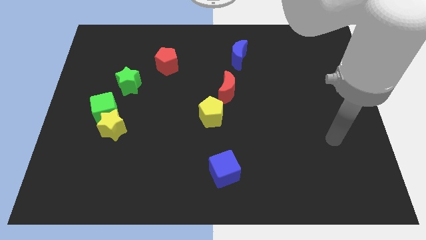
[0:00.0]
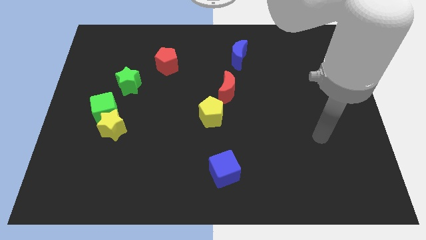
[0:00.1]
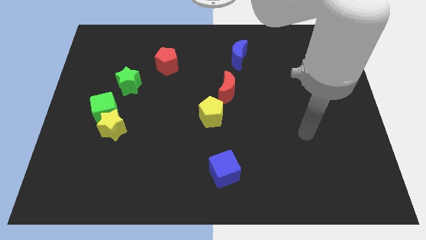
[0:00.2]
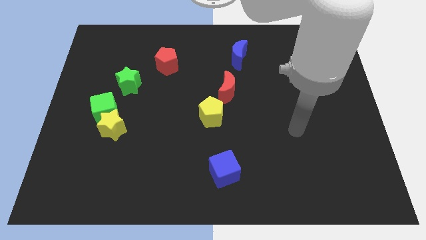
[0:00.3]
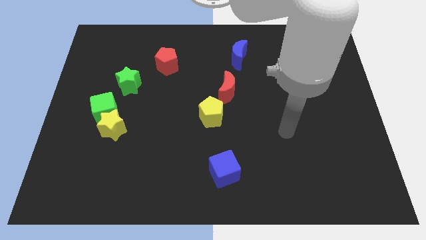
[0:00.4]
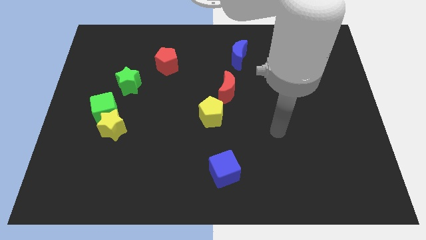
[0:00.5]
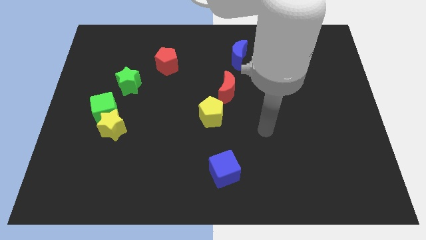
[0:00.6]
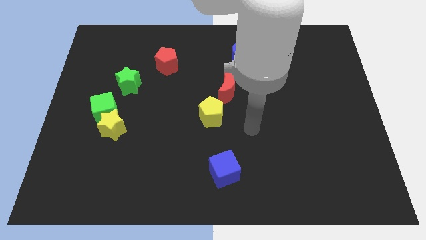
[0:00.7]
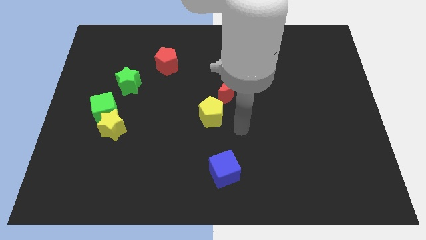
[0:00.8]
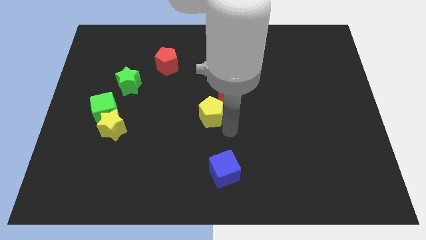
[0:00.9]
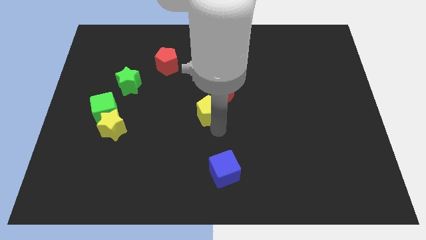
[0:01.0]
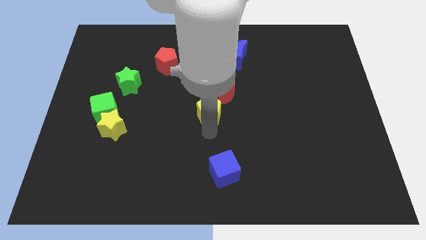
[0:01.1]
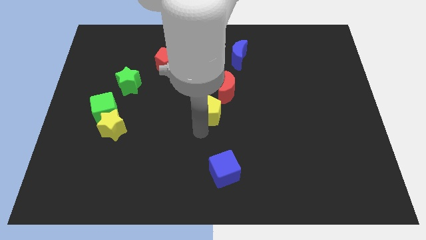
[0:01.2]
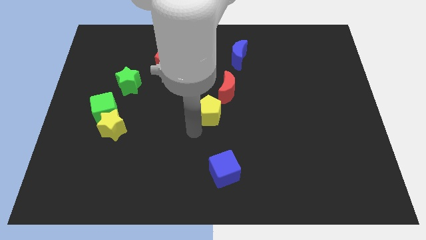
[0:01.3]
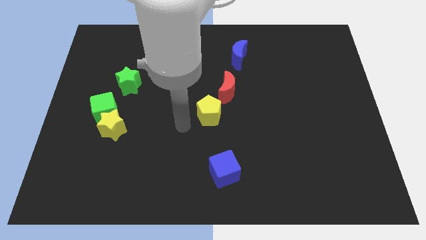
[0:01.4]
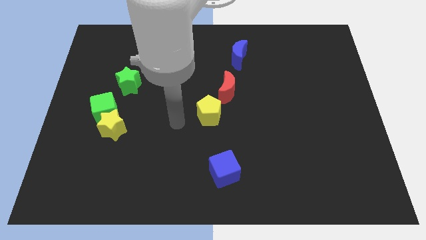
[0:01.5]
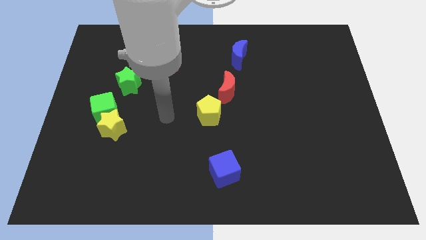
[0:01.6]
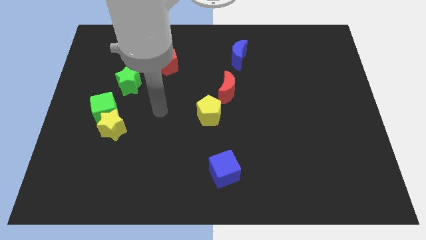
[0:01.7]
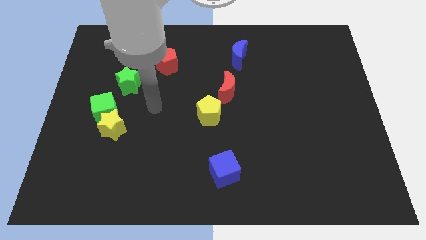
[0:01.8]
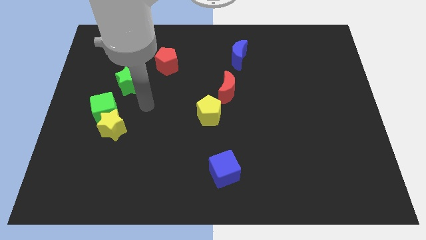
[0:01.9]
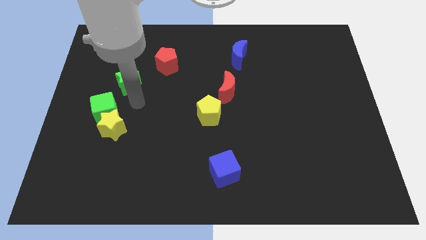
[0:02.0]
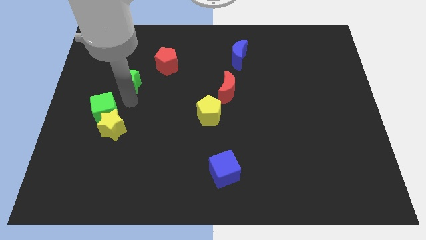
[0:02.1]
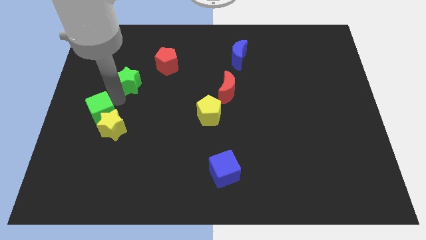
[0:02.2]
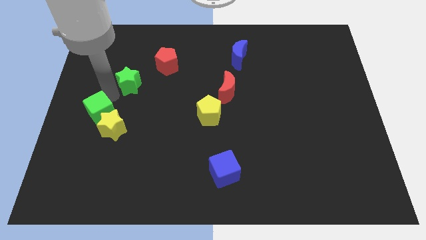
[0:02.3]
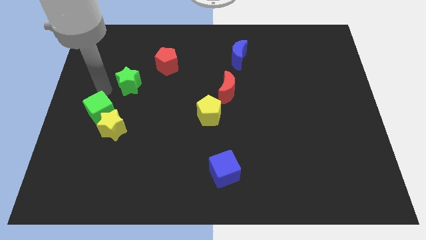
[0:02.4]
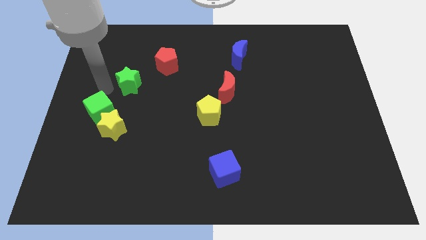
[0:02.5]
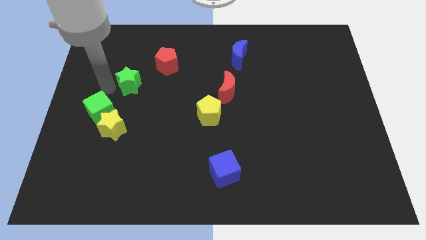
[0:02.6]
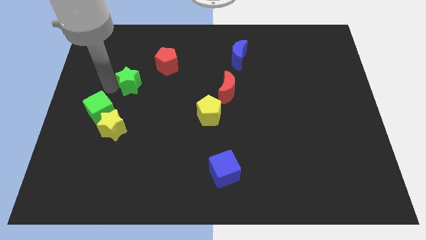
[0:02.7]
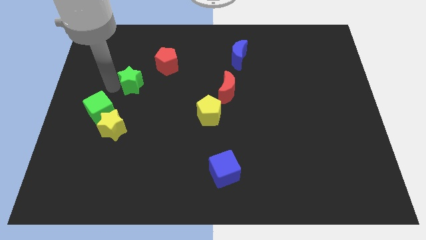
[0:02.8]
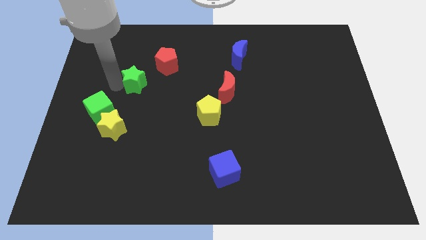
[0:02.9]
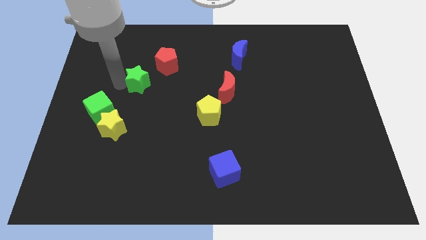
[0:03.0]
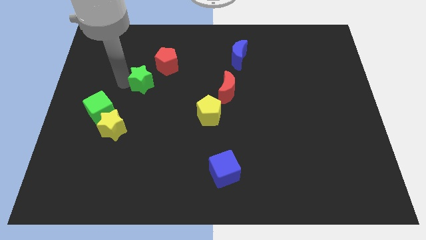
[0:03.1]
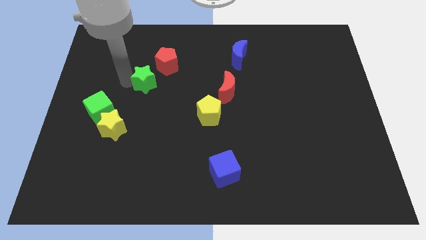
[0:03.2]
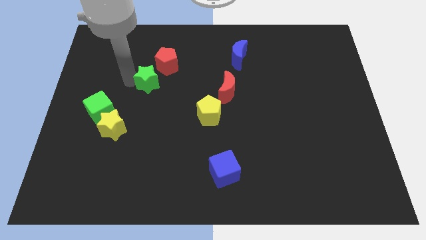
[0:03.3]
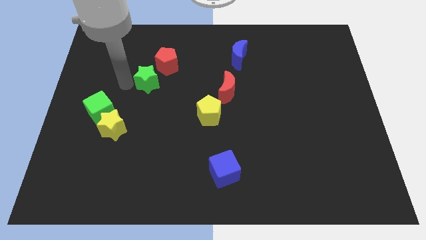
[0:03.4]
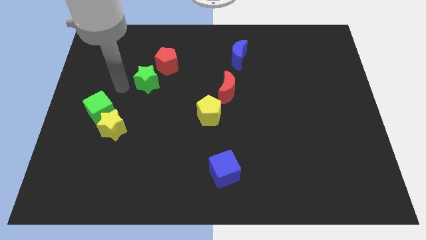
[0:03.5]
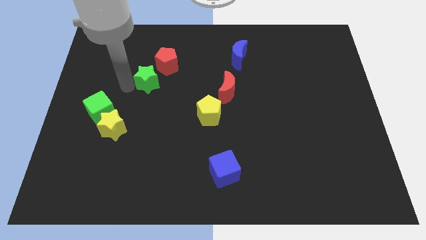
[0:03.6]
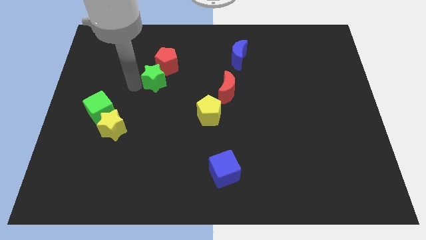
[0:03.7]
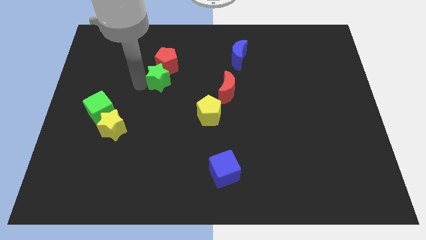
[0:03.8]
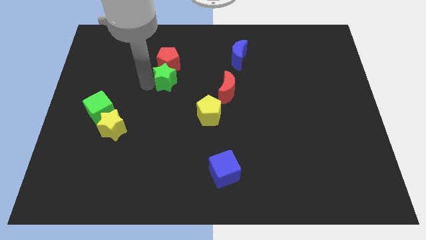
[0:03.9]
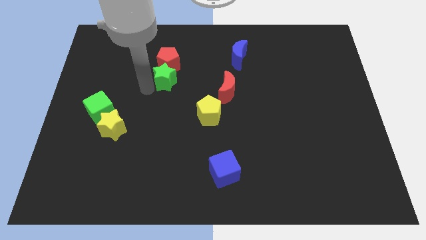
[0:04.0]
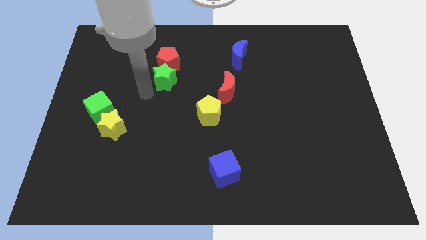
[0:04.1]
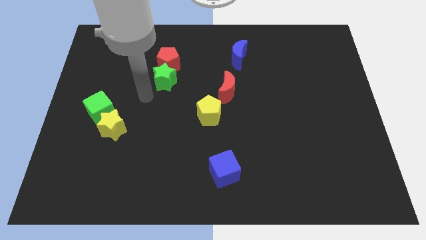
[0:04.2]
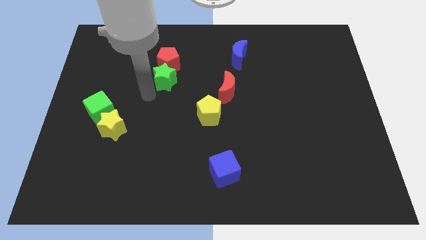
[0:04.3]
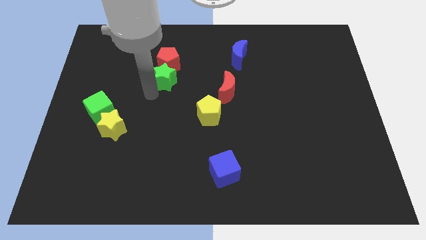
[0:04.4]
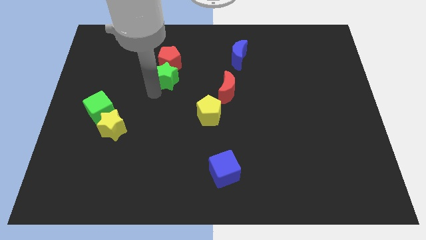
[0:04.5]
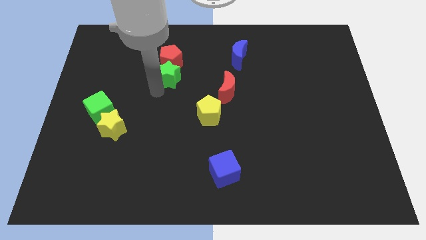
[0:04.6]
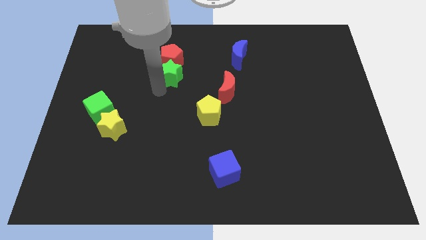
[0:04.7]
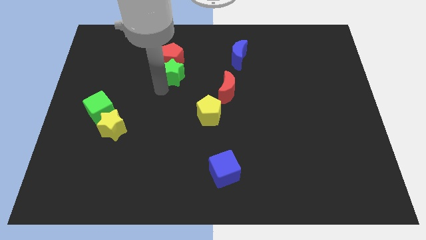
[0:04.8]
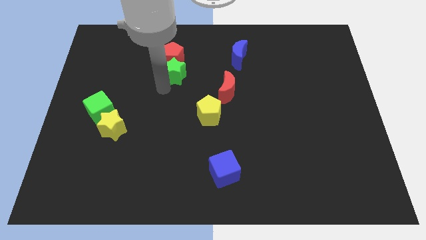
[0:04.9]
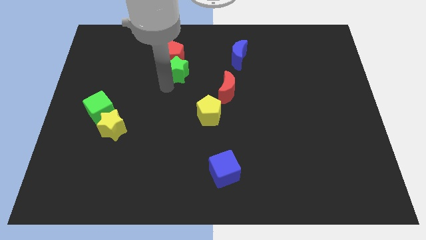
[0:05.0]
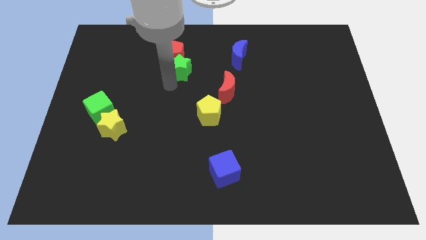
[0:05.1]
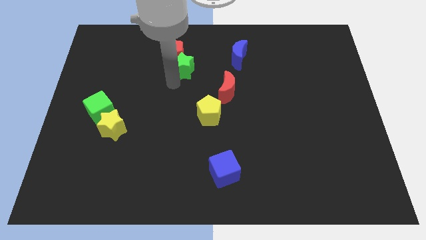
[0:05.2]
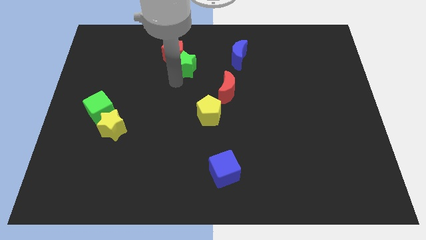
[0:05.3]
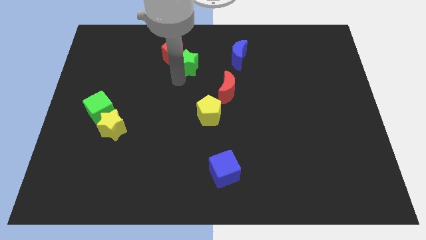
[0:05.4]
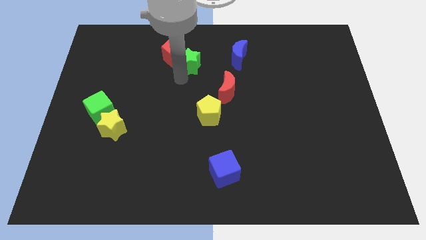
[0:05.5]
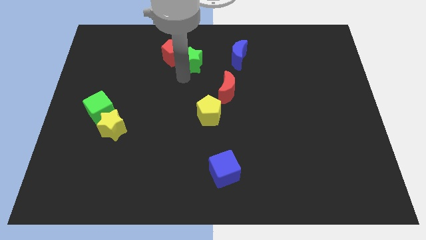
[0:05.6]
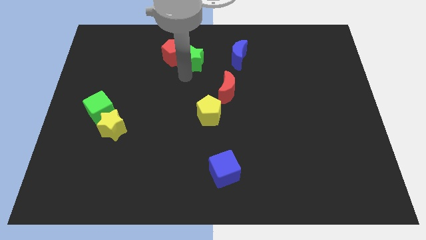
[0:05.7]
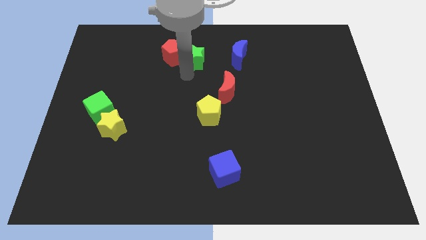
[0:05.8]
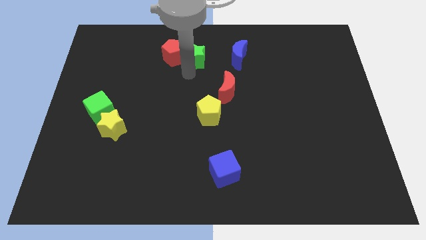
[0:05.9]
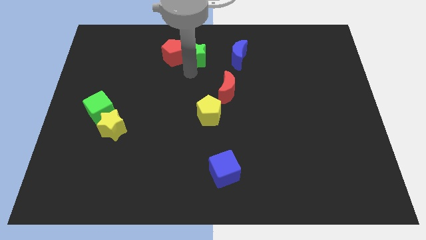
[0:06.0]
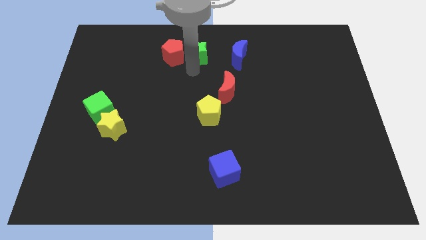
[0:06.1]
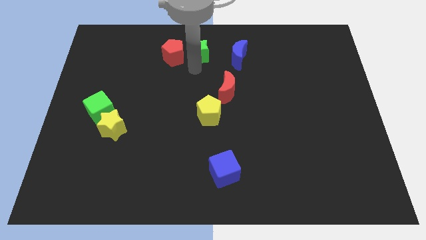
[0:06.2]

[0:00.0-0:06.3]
put the green star to the top side
